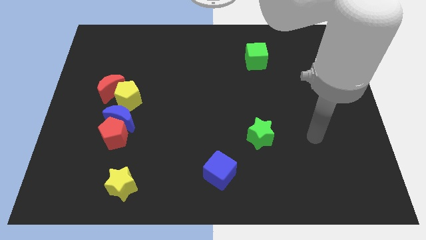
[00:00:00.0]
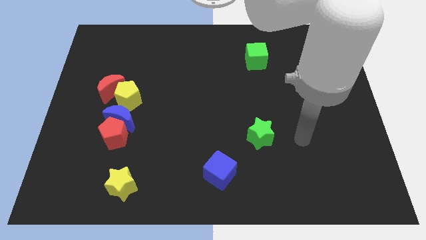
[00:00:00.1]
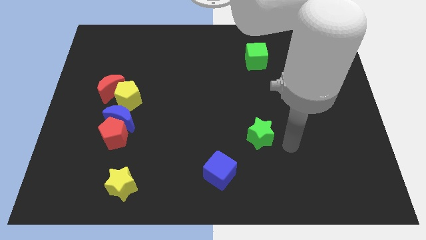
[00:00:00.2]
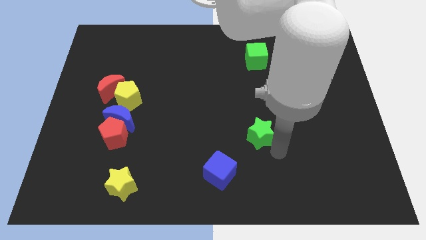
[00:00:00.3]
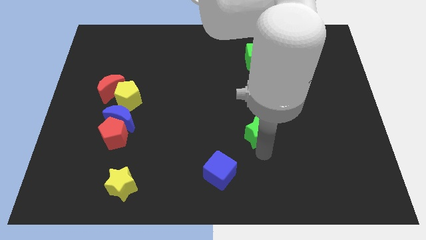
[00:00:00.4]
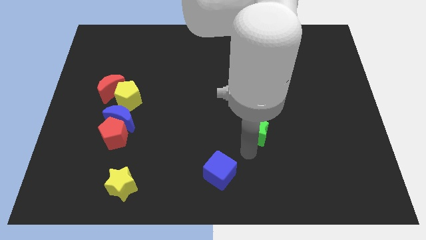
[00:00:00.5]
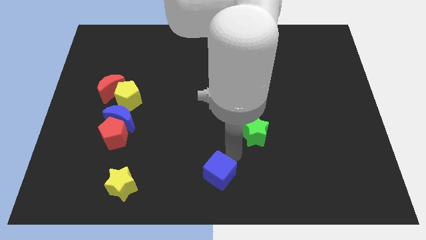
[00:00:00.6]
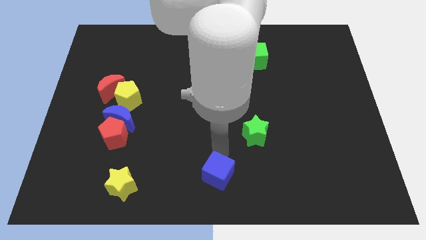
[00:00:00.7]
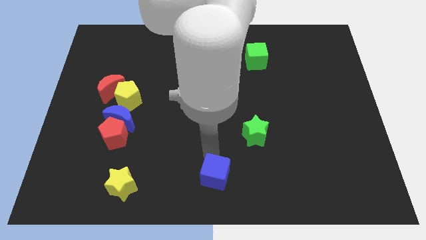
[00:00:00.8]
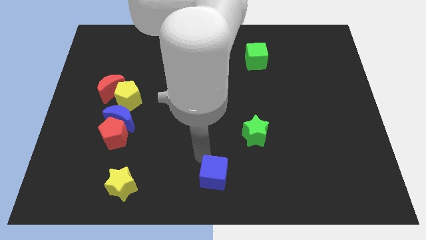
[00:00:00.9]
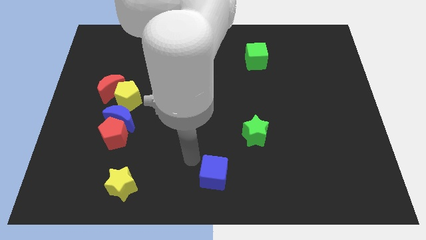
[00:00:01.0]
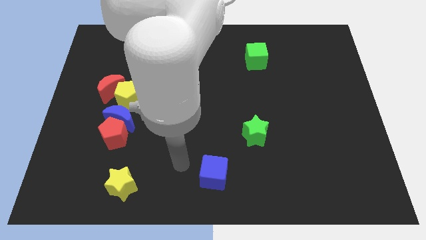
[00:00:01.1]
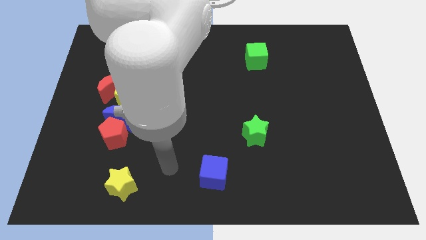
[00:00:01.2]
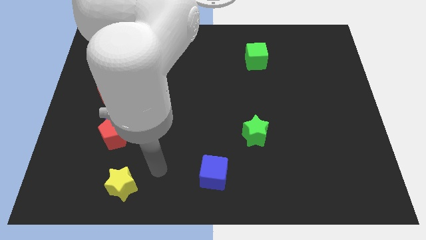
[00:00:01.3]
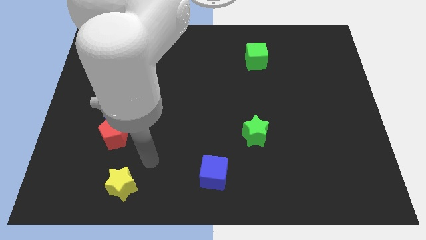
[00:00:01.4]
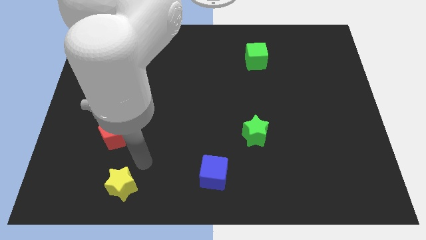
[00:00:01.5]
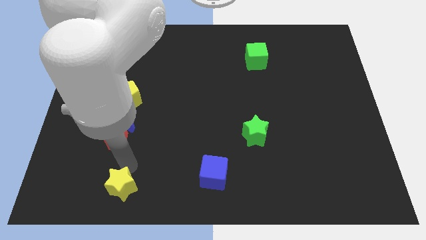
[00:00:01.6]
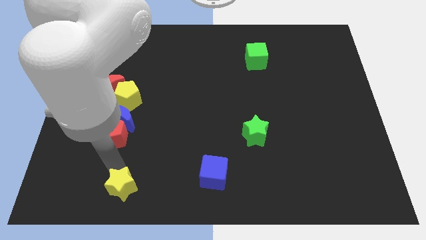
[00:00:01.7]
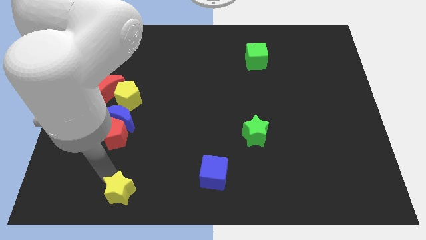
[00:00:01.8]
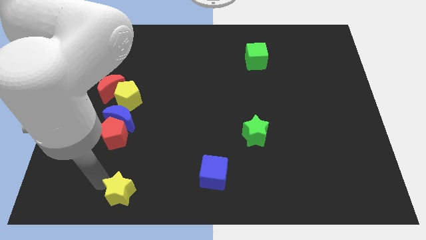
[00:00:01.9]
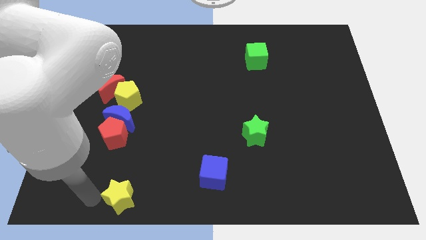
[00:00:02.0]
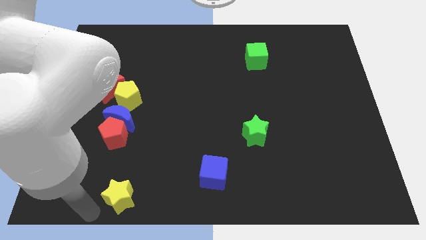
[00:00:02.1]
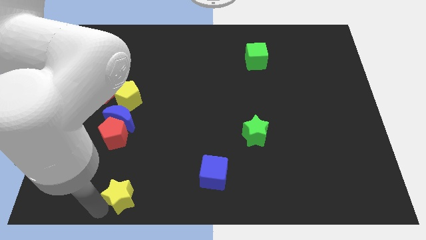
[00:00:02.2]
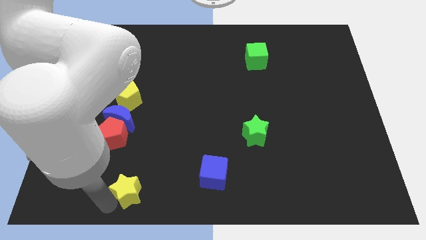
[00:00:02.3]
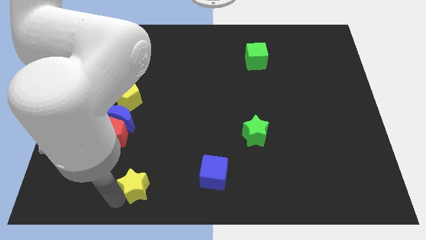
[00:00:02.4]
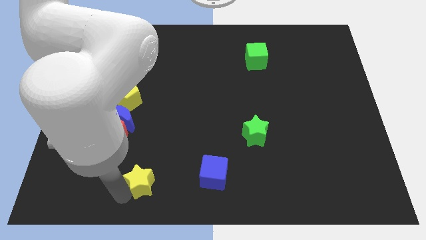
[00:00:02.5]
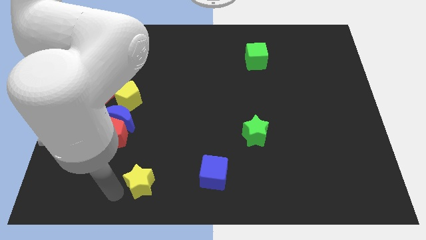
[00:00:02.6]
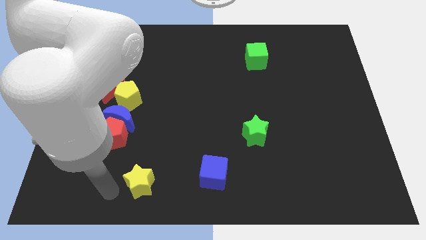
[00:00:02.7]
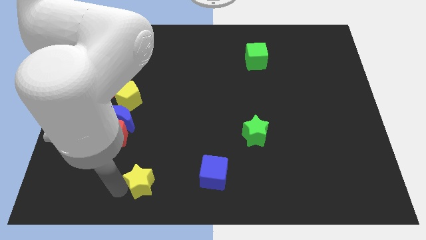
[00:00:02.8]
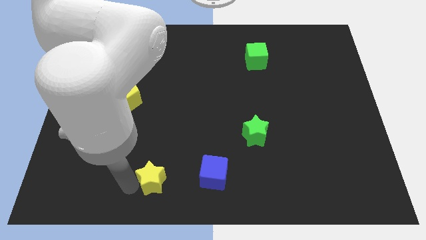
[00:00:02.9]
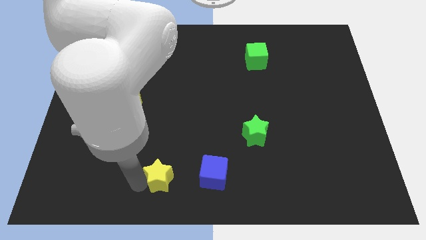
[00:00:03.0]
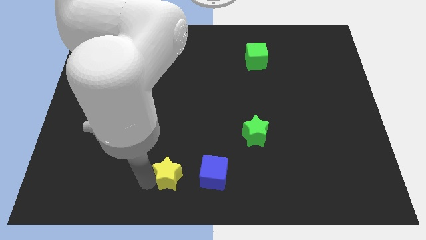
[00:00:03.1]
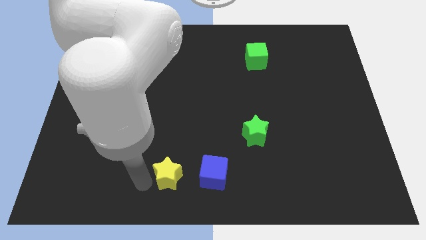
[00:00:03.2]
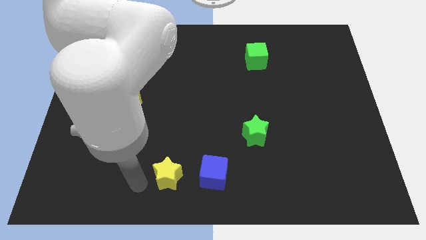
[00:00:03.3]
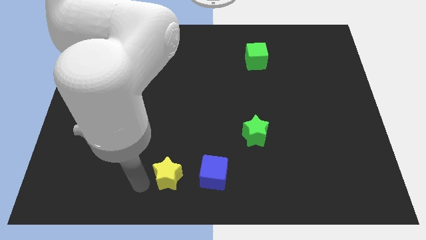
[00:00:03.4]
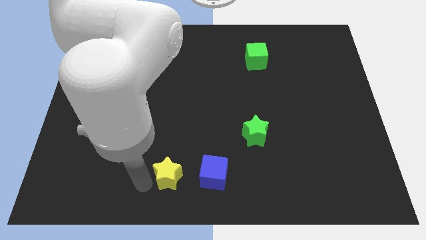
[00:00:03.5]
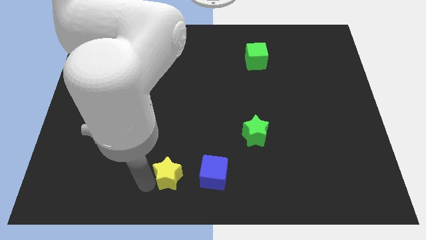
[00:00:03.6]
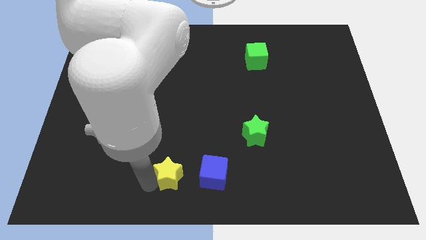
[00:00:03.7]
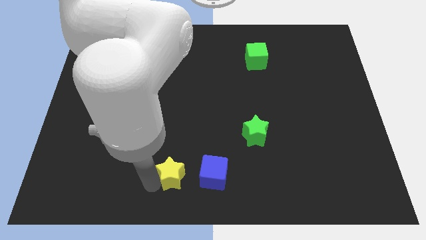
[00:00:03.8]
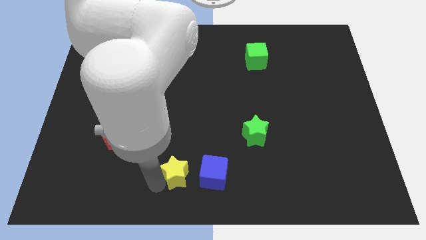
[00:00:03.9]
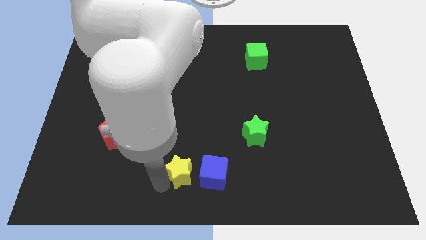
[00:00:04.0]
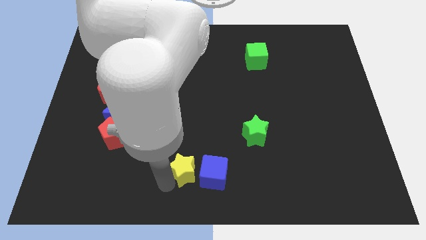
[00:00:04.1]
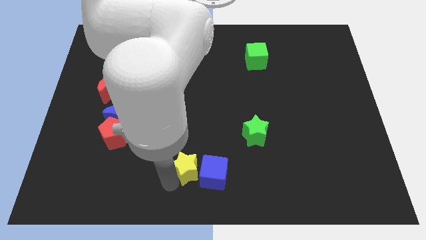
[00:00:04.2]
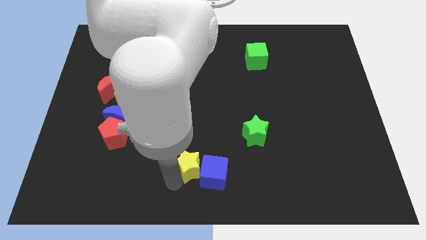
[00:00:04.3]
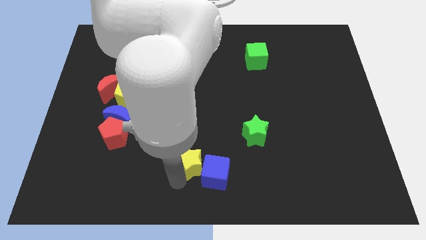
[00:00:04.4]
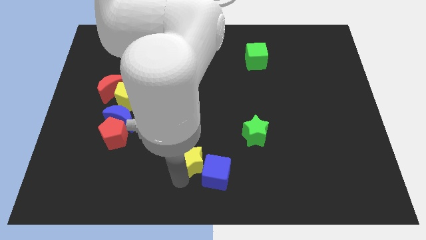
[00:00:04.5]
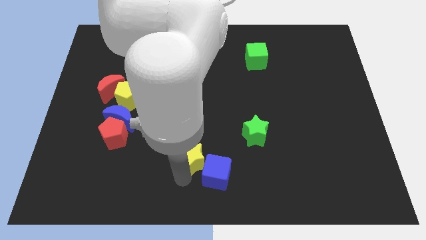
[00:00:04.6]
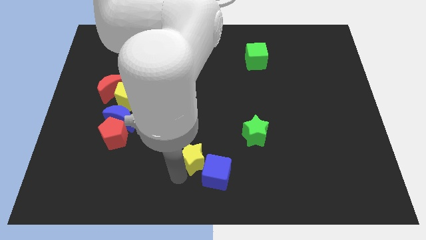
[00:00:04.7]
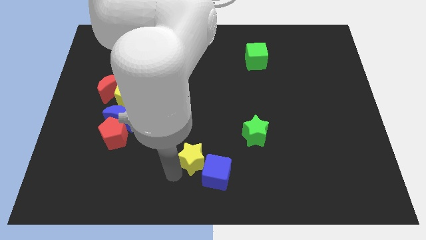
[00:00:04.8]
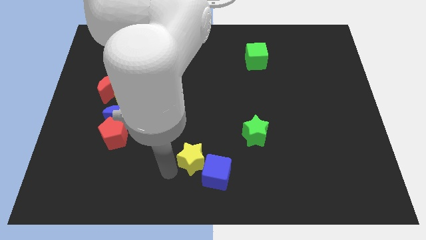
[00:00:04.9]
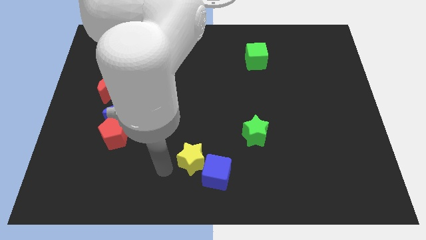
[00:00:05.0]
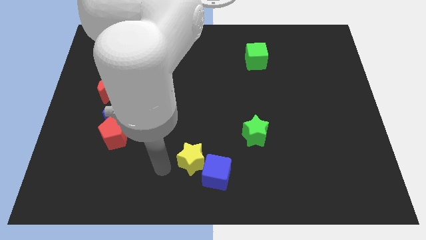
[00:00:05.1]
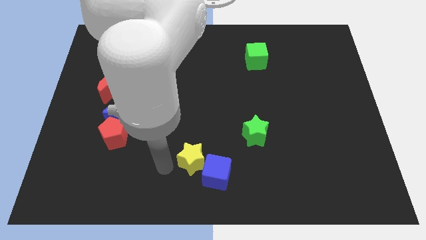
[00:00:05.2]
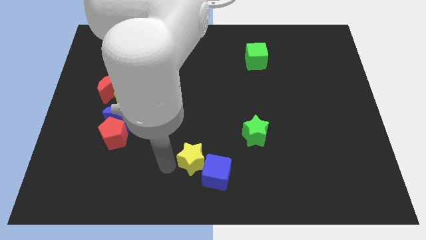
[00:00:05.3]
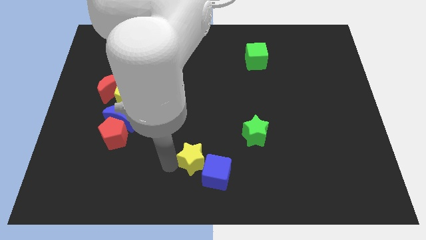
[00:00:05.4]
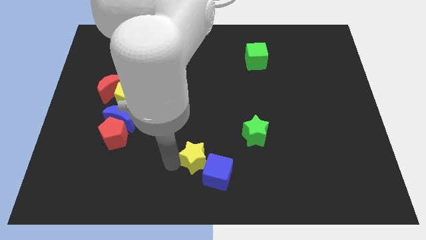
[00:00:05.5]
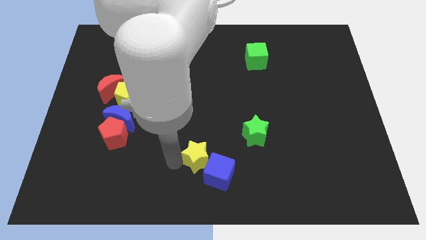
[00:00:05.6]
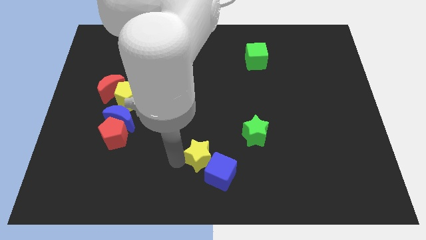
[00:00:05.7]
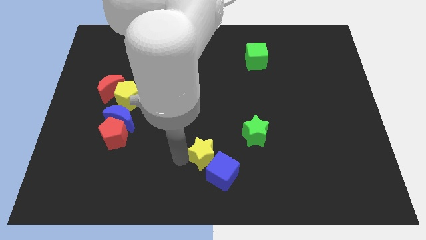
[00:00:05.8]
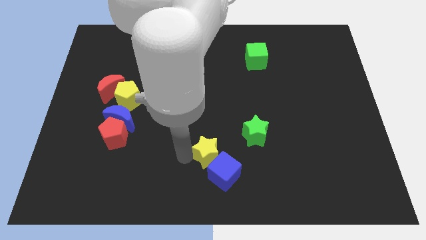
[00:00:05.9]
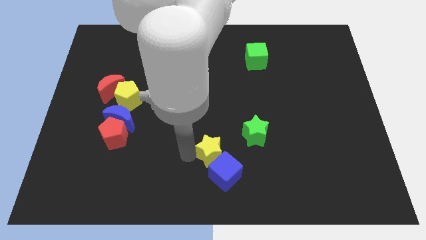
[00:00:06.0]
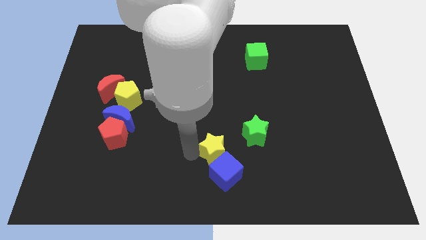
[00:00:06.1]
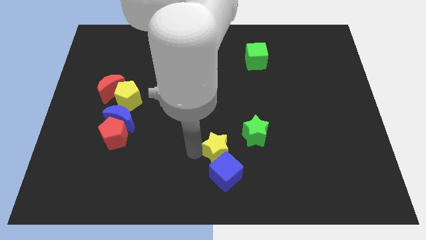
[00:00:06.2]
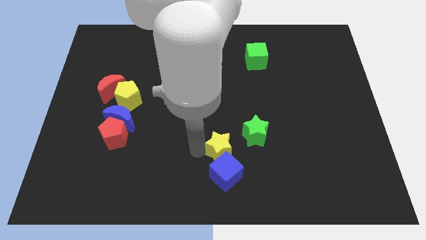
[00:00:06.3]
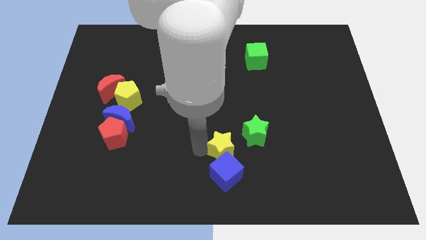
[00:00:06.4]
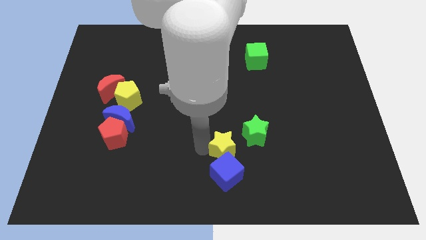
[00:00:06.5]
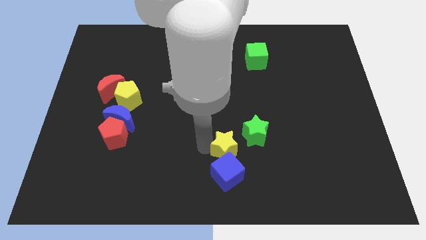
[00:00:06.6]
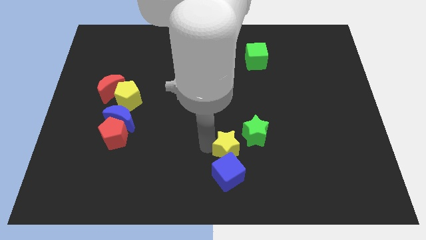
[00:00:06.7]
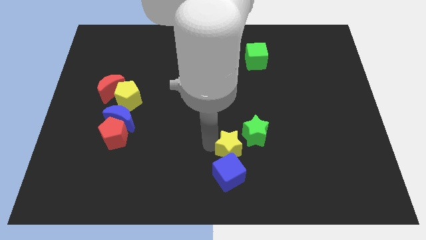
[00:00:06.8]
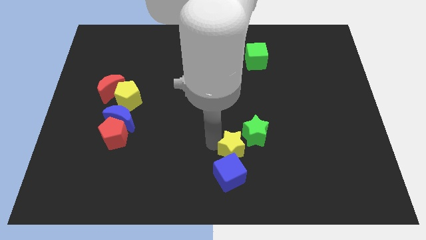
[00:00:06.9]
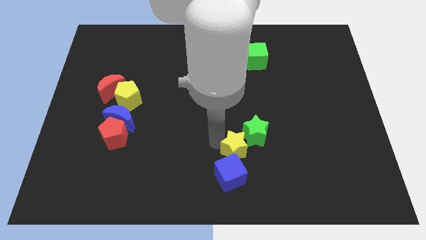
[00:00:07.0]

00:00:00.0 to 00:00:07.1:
slide the yellow star close to the green star
